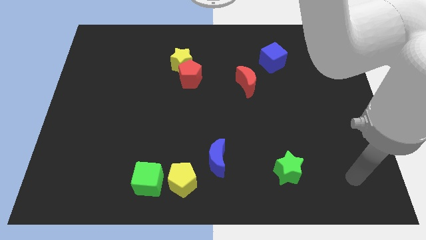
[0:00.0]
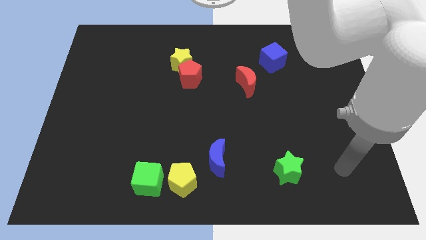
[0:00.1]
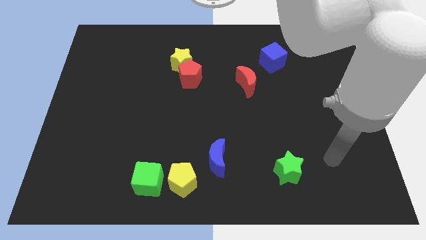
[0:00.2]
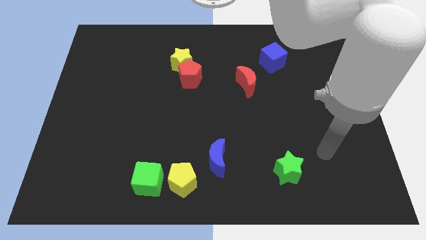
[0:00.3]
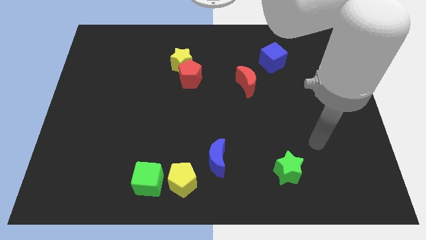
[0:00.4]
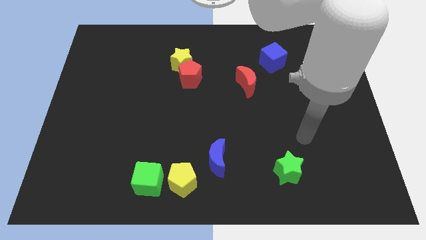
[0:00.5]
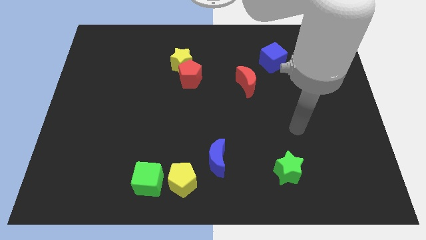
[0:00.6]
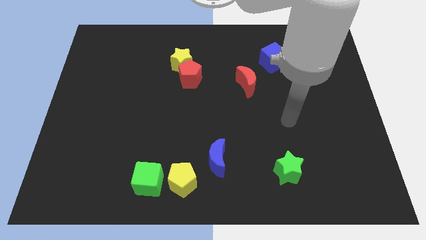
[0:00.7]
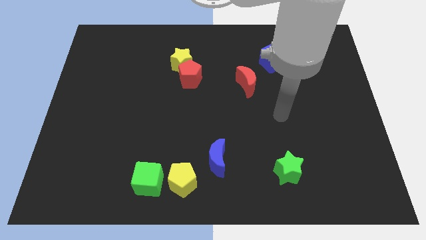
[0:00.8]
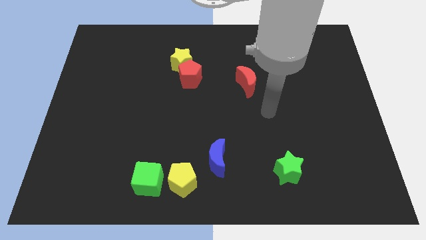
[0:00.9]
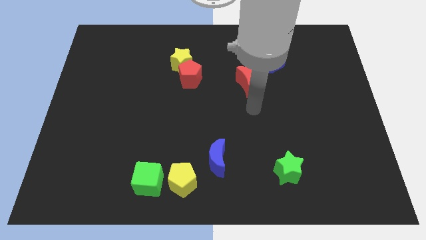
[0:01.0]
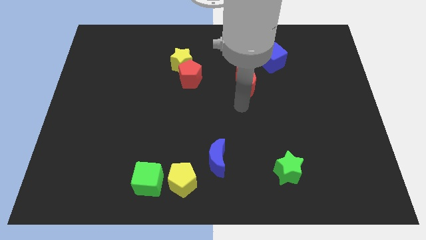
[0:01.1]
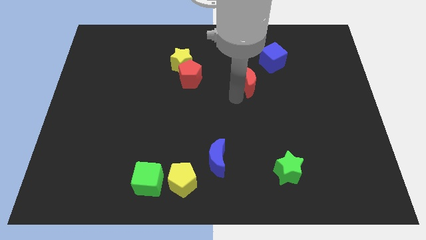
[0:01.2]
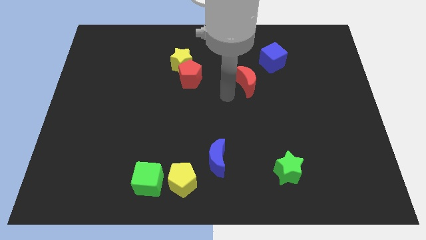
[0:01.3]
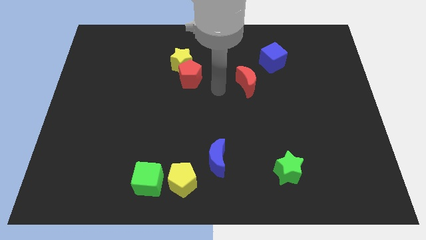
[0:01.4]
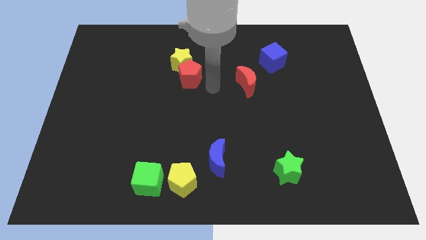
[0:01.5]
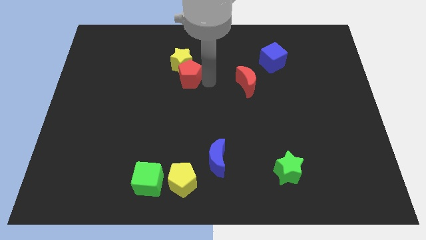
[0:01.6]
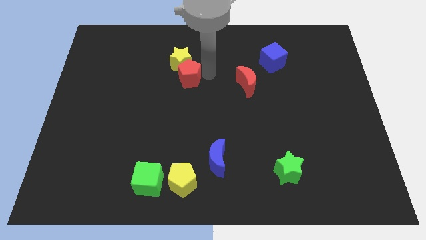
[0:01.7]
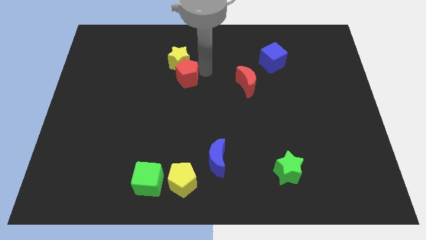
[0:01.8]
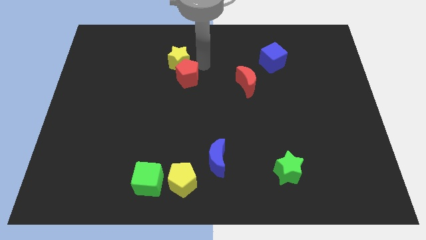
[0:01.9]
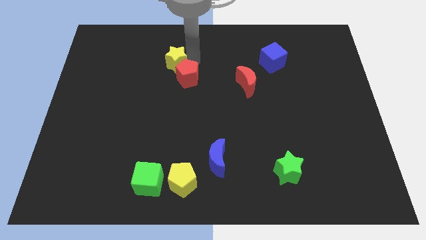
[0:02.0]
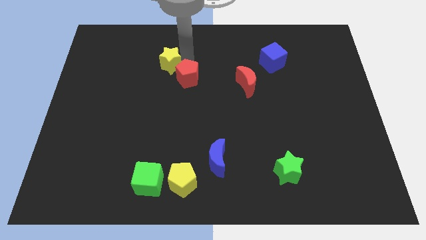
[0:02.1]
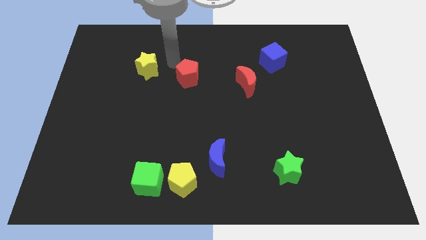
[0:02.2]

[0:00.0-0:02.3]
separate the red pentagon from the yellow star

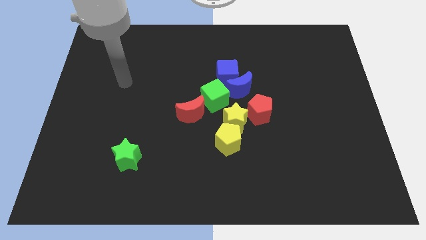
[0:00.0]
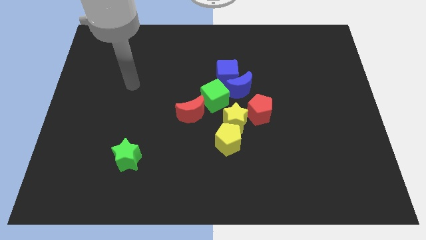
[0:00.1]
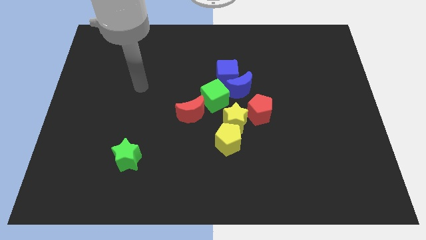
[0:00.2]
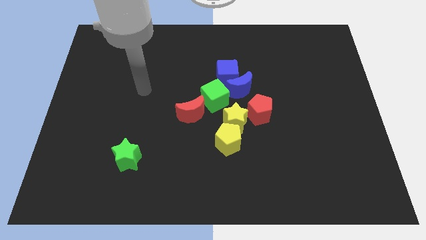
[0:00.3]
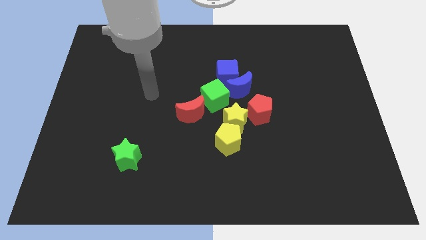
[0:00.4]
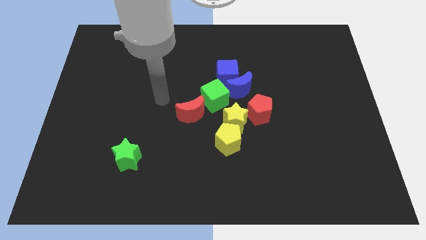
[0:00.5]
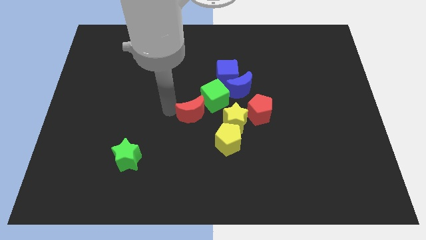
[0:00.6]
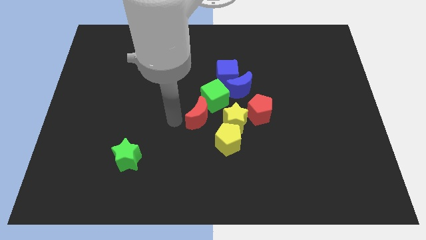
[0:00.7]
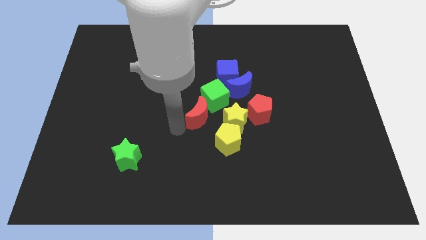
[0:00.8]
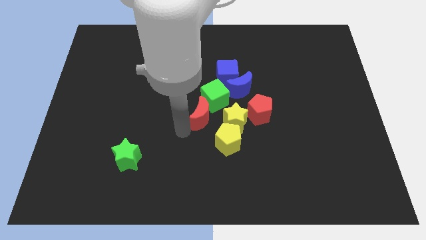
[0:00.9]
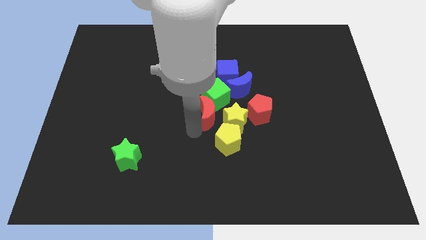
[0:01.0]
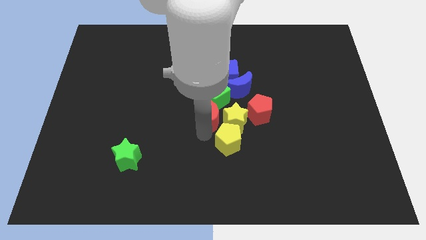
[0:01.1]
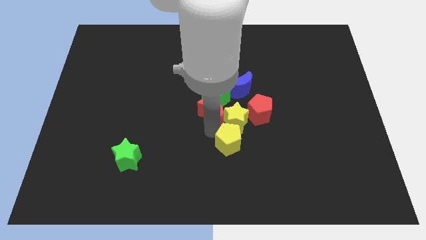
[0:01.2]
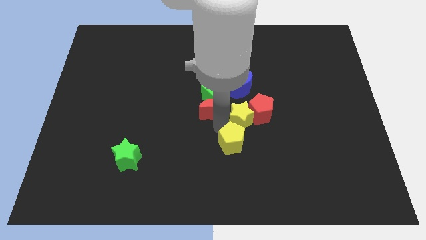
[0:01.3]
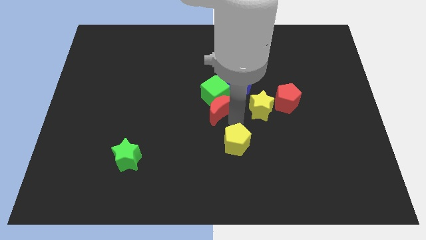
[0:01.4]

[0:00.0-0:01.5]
pull the yellow pentagon apart from the yellow star

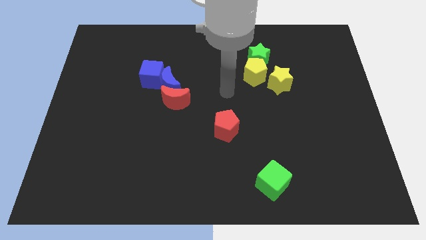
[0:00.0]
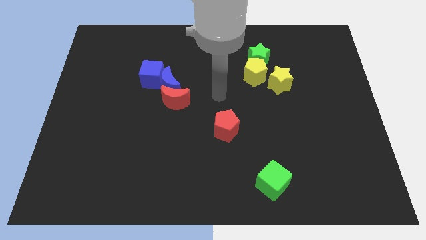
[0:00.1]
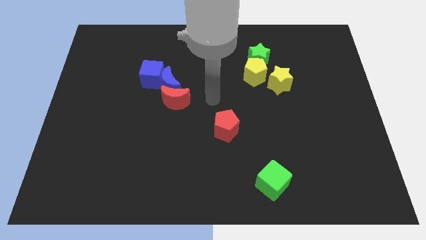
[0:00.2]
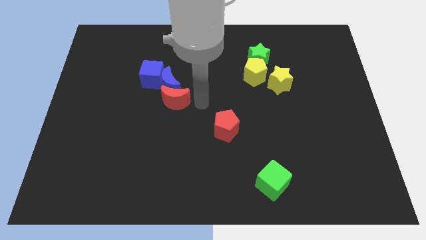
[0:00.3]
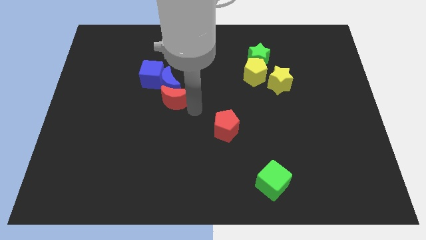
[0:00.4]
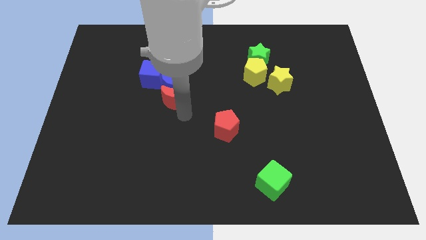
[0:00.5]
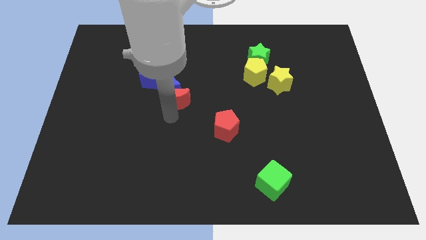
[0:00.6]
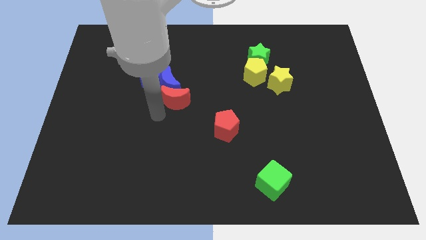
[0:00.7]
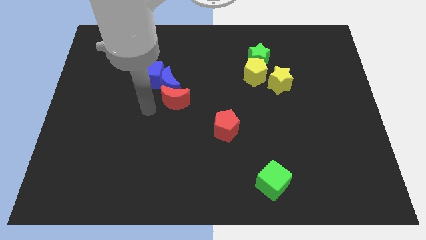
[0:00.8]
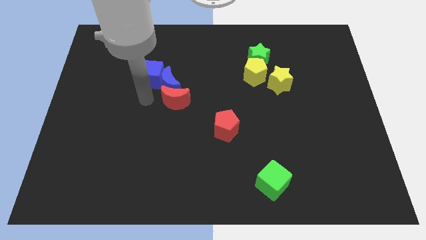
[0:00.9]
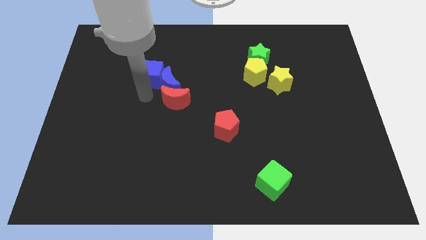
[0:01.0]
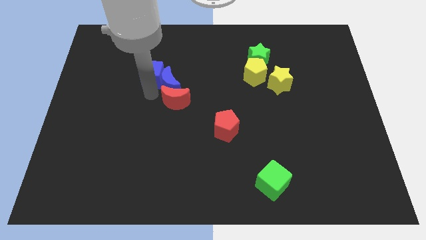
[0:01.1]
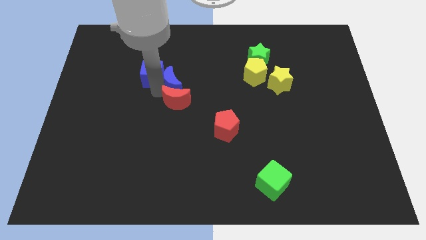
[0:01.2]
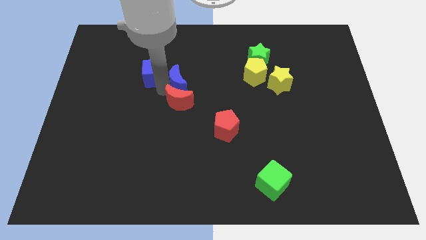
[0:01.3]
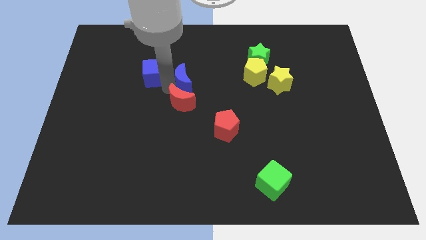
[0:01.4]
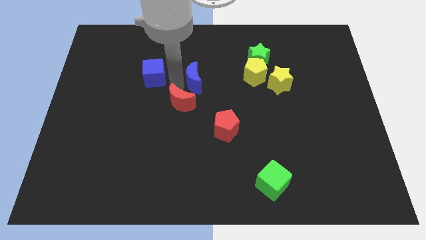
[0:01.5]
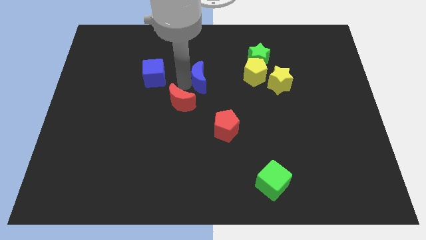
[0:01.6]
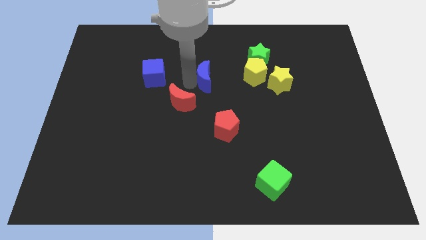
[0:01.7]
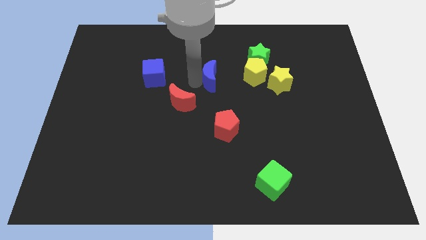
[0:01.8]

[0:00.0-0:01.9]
separate the blue moon from the red moon and blue cube

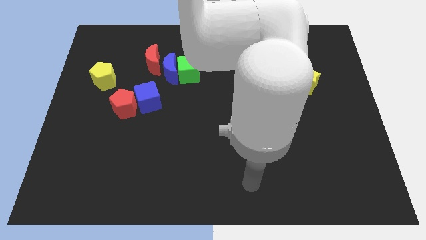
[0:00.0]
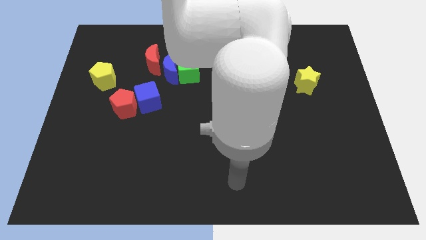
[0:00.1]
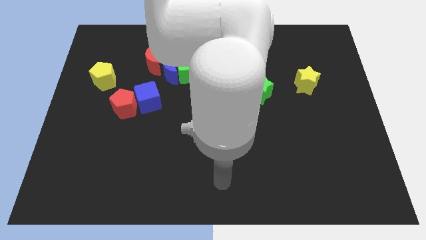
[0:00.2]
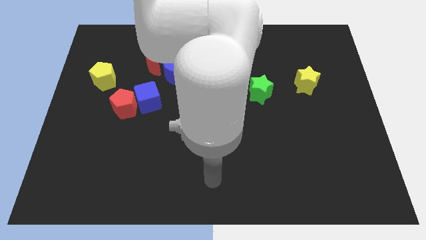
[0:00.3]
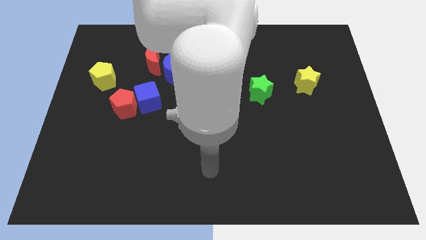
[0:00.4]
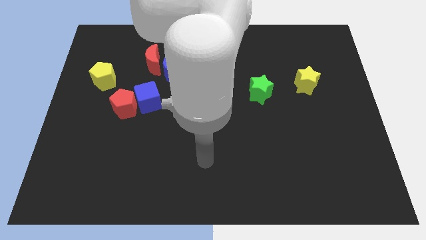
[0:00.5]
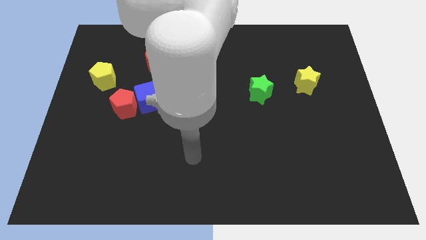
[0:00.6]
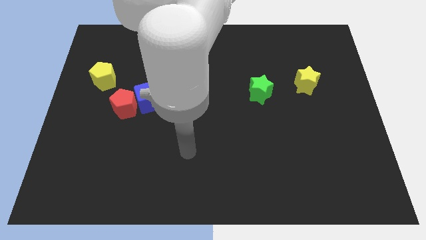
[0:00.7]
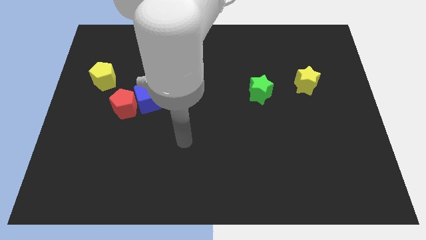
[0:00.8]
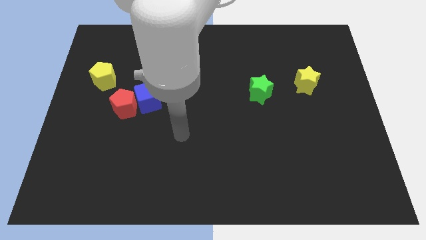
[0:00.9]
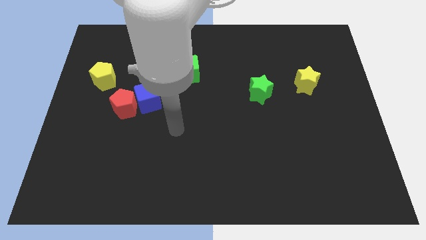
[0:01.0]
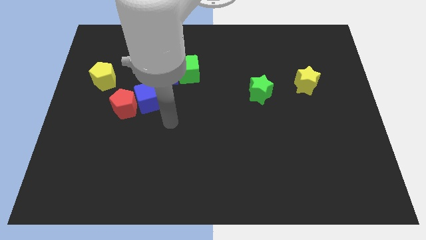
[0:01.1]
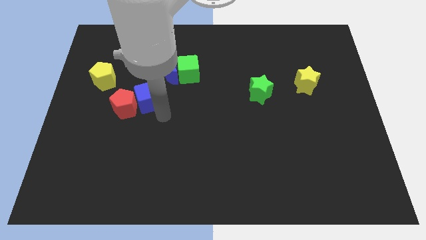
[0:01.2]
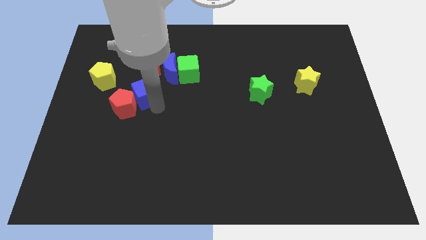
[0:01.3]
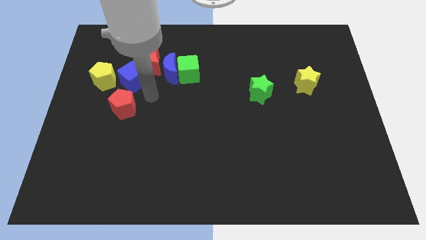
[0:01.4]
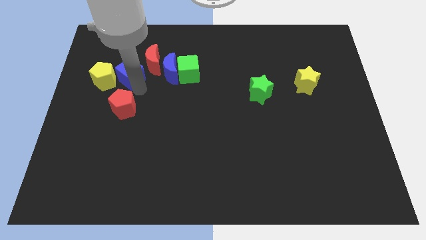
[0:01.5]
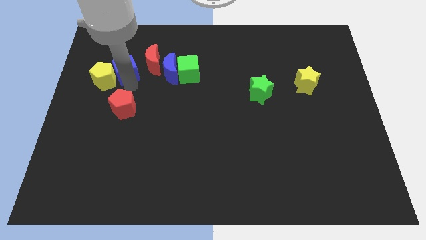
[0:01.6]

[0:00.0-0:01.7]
pull the red pentagon apart from the blue cube

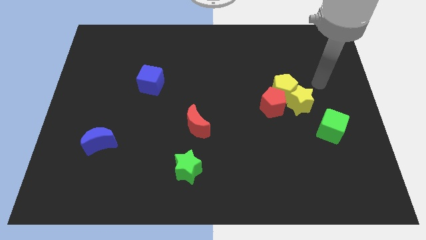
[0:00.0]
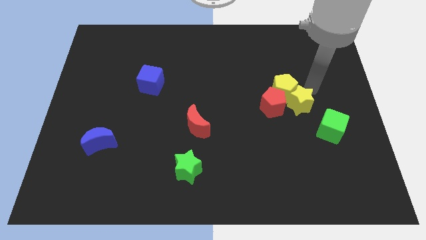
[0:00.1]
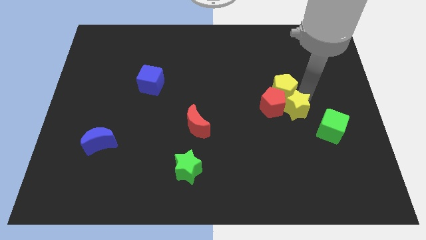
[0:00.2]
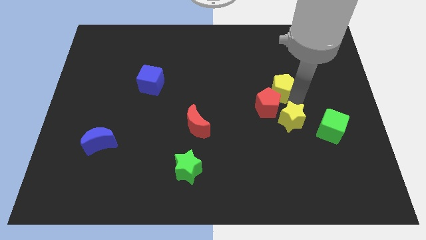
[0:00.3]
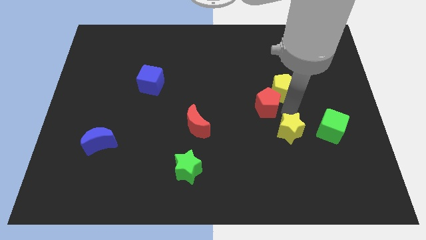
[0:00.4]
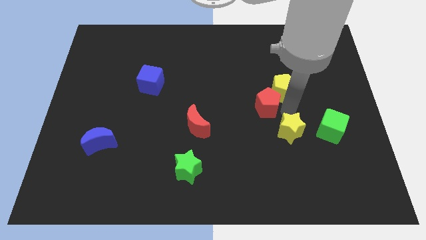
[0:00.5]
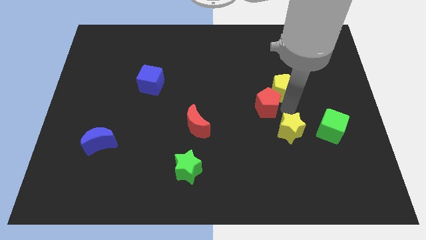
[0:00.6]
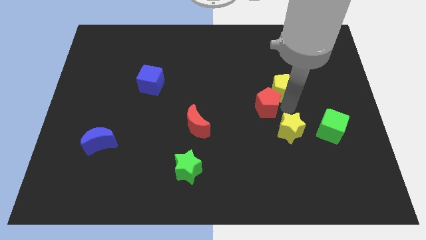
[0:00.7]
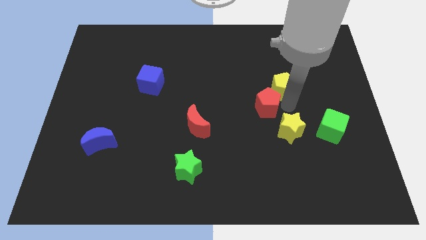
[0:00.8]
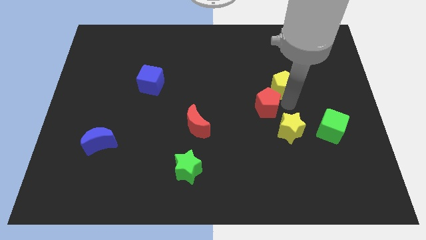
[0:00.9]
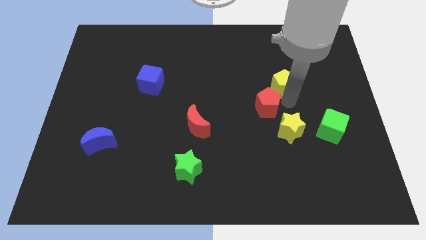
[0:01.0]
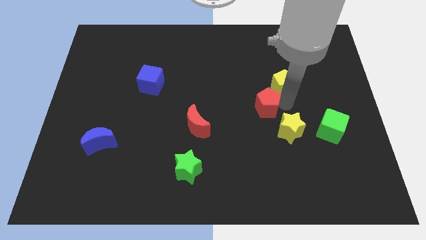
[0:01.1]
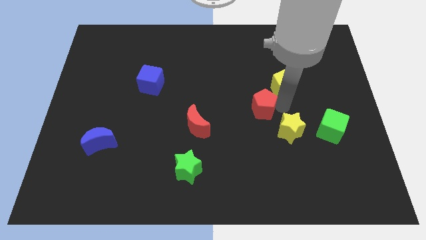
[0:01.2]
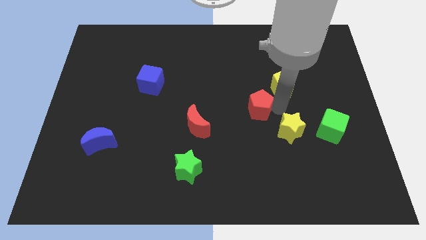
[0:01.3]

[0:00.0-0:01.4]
pull the yellow pentagon apart from the yellow star and red pentagon

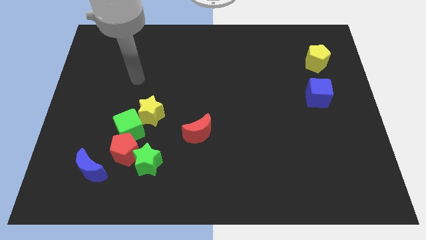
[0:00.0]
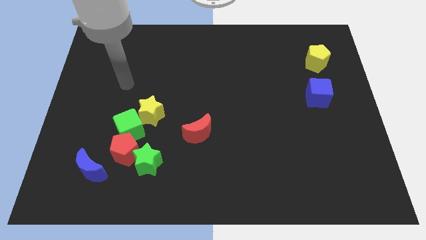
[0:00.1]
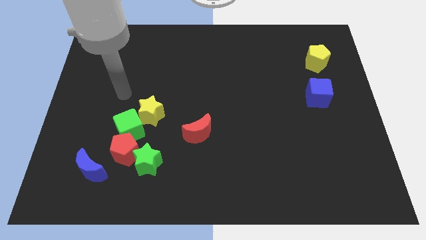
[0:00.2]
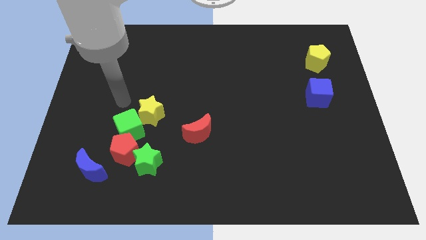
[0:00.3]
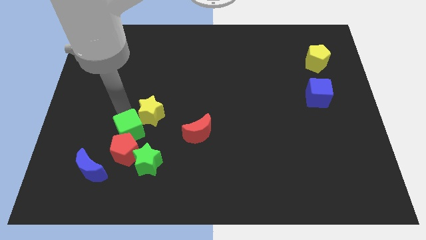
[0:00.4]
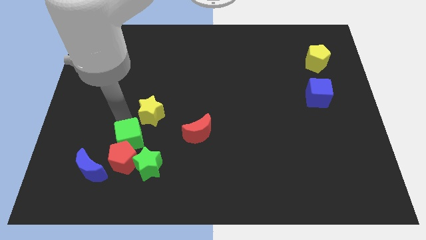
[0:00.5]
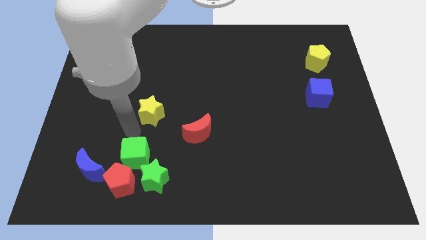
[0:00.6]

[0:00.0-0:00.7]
move the yellow star away from the green cube
